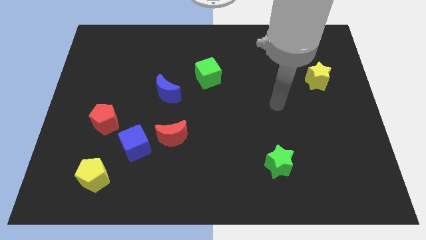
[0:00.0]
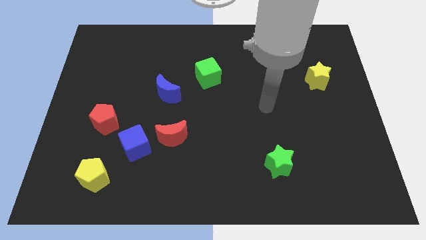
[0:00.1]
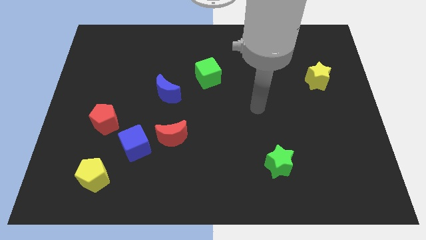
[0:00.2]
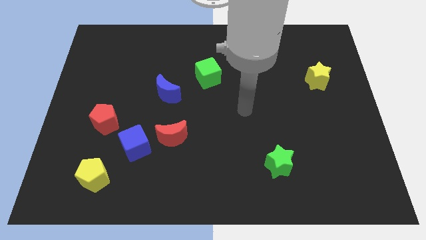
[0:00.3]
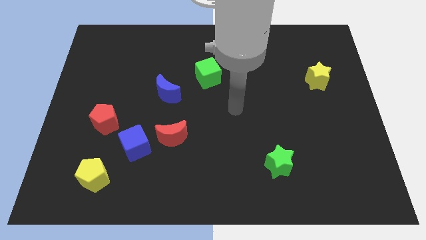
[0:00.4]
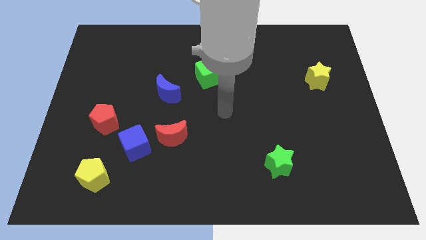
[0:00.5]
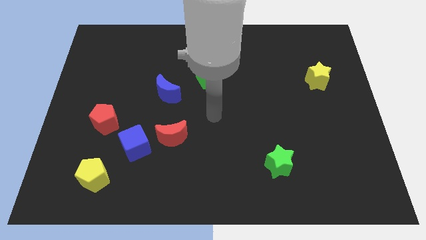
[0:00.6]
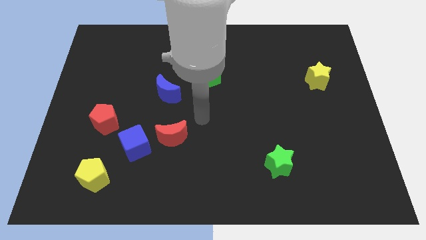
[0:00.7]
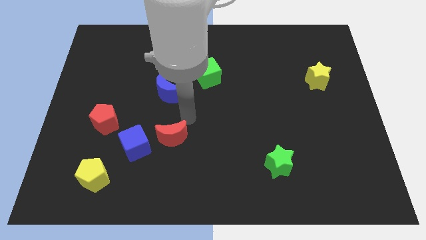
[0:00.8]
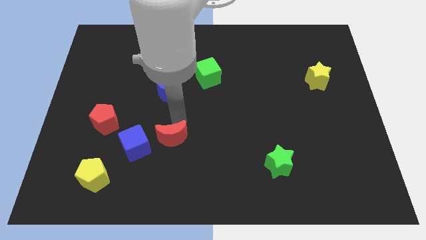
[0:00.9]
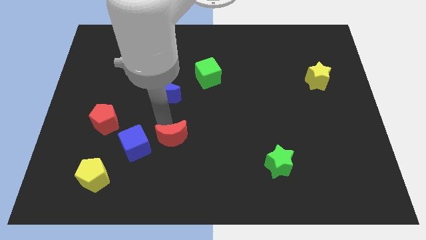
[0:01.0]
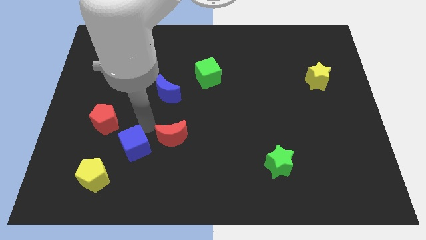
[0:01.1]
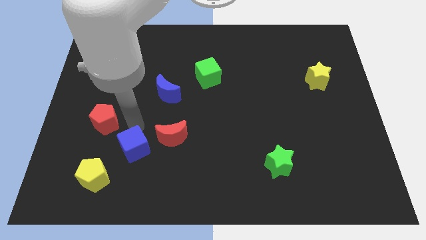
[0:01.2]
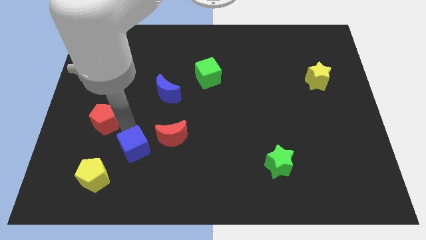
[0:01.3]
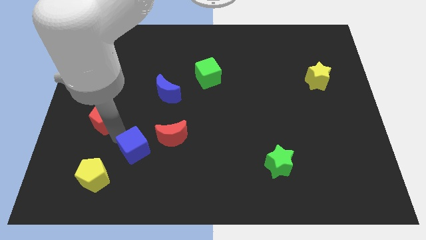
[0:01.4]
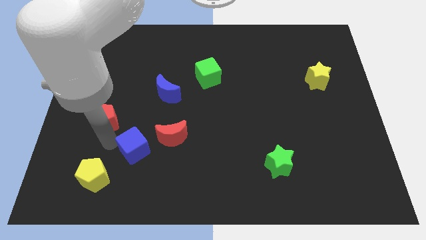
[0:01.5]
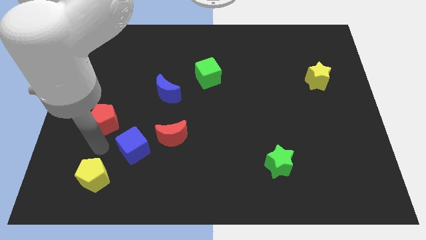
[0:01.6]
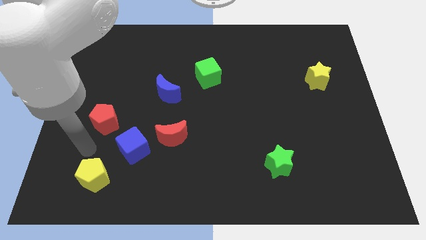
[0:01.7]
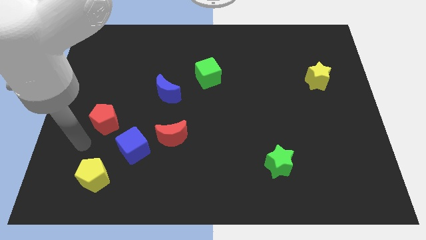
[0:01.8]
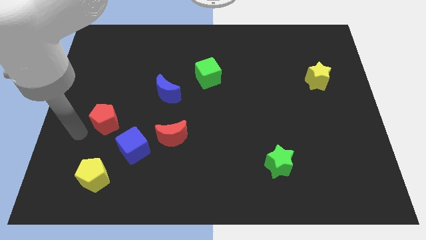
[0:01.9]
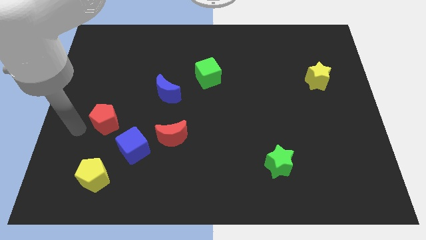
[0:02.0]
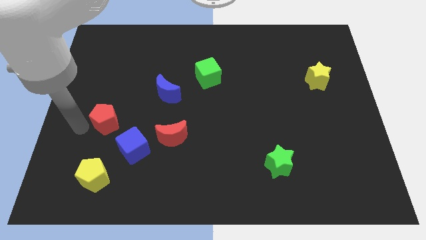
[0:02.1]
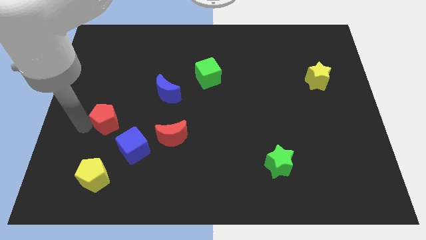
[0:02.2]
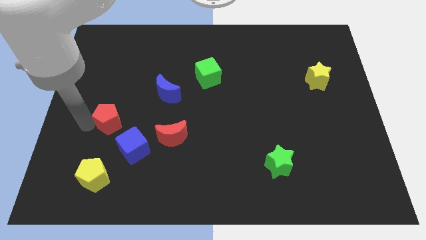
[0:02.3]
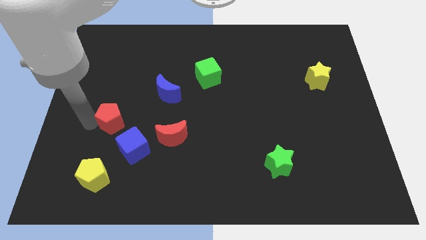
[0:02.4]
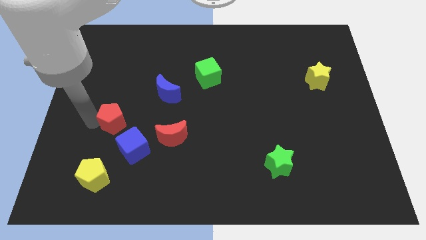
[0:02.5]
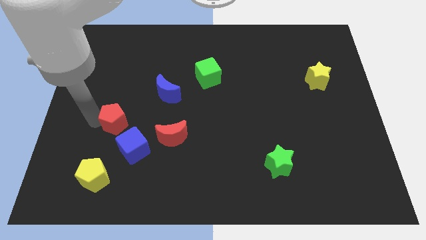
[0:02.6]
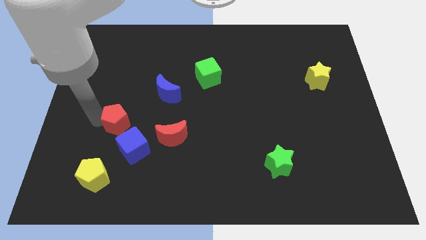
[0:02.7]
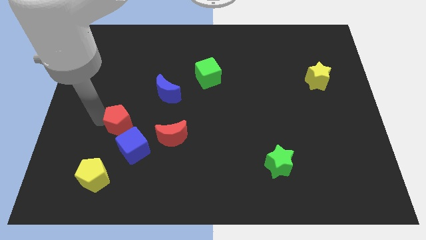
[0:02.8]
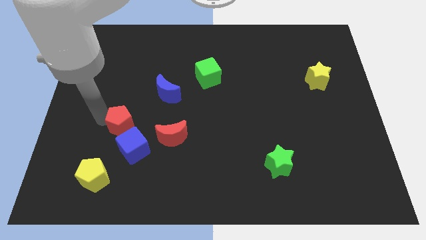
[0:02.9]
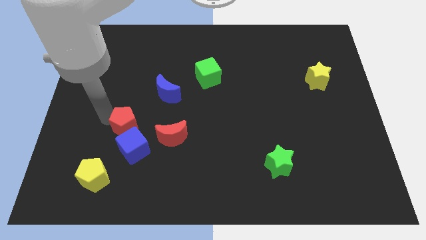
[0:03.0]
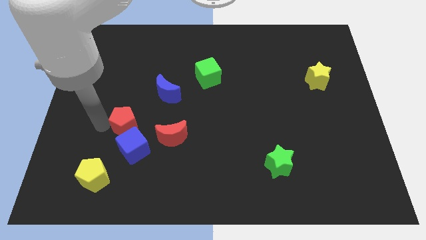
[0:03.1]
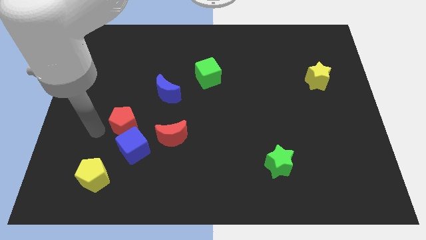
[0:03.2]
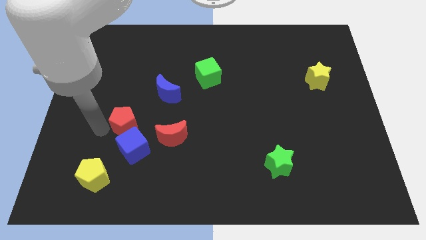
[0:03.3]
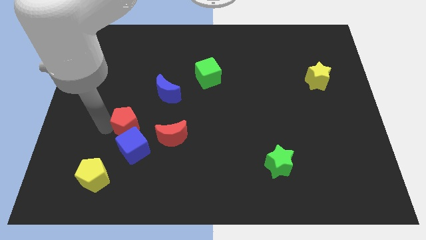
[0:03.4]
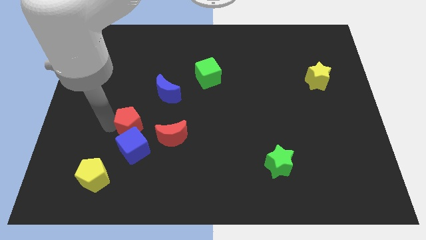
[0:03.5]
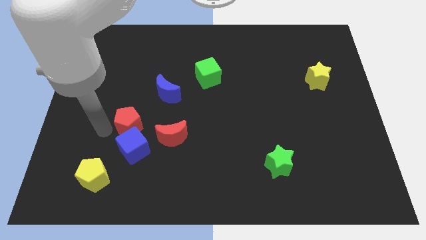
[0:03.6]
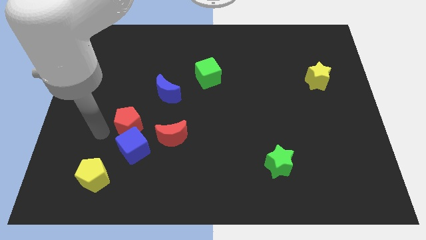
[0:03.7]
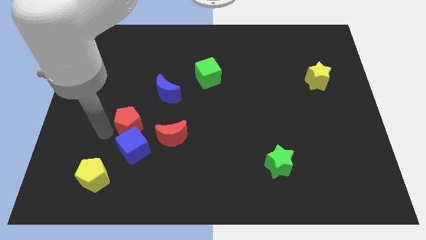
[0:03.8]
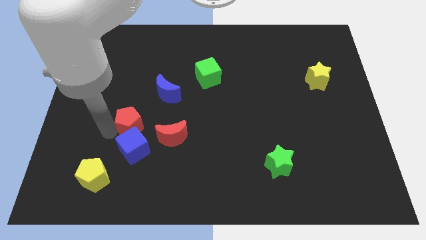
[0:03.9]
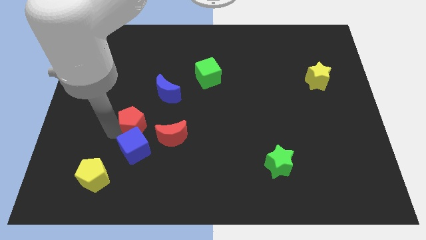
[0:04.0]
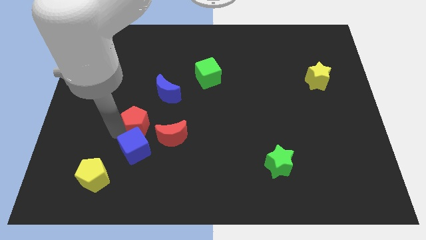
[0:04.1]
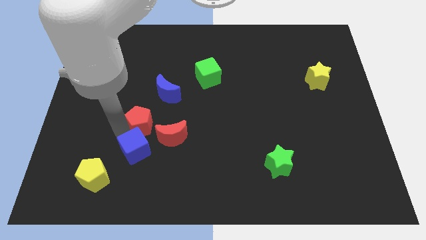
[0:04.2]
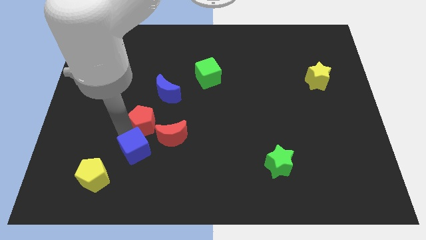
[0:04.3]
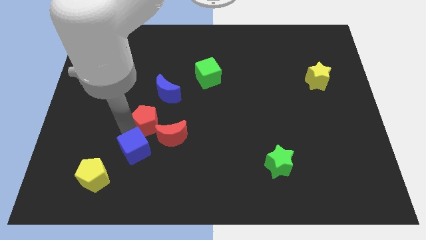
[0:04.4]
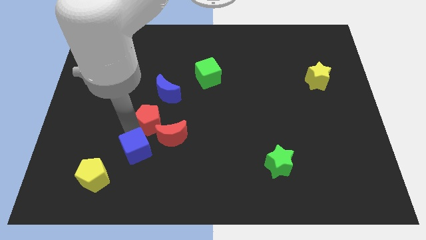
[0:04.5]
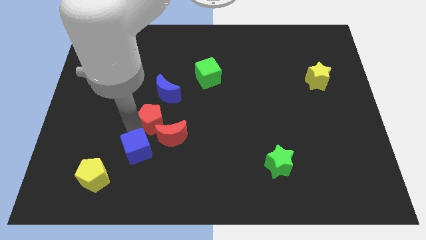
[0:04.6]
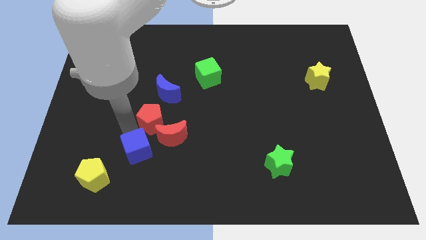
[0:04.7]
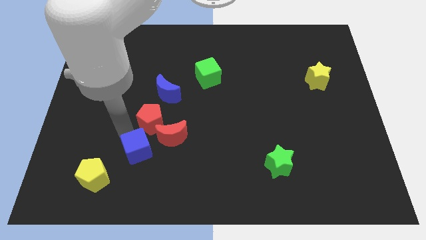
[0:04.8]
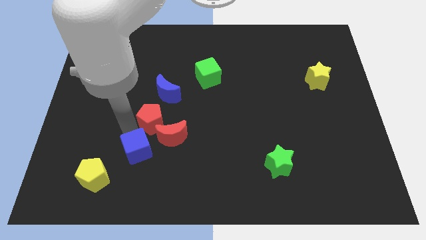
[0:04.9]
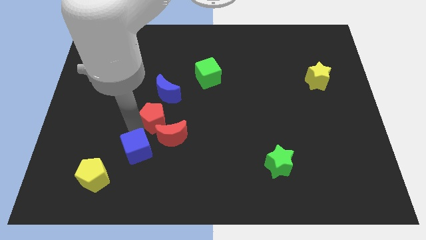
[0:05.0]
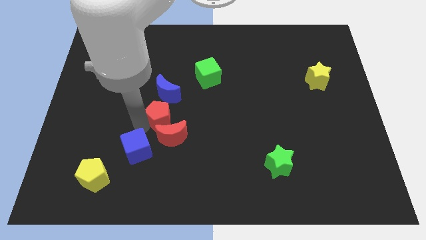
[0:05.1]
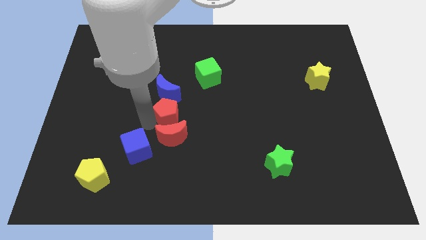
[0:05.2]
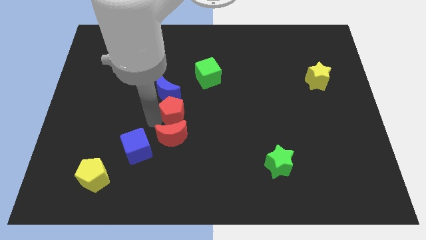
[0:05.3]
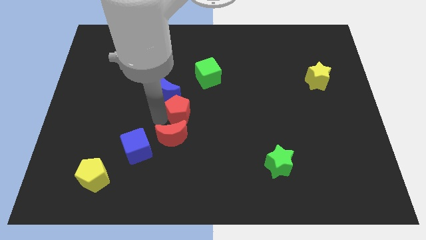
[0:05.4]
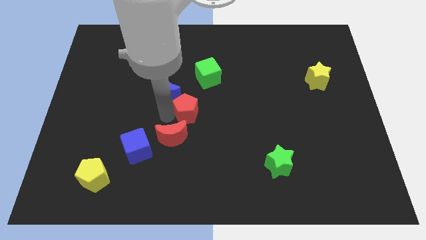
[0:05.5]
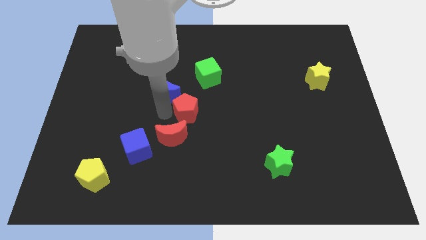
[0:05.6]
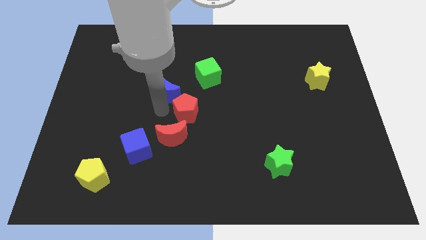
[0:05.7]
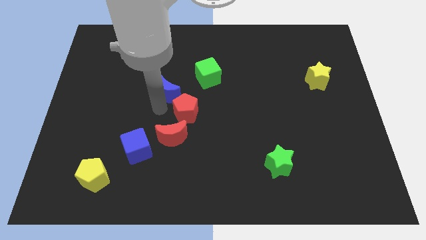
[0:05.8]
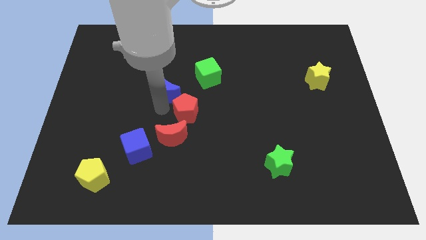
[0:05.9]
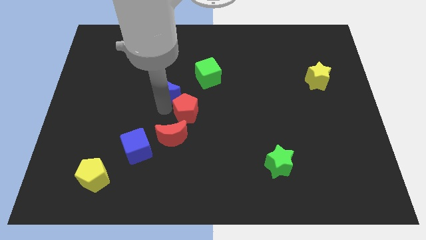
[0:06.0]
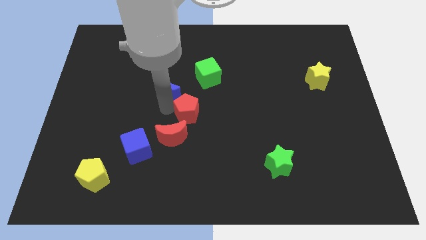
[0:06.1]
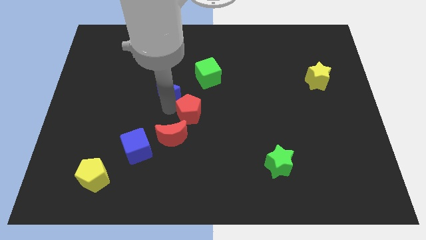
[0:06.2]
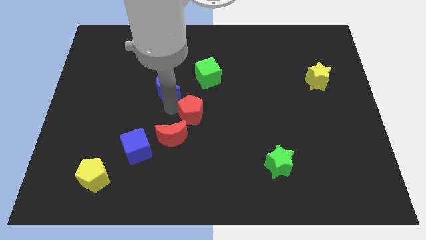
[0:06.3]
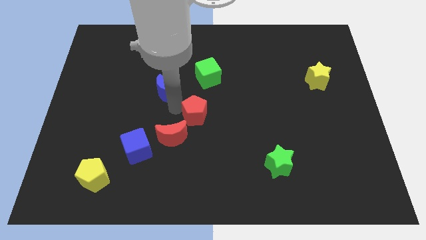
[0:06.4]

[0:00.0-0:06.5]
push the red pentagon right

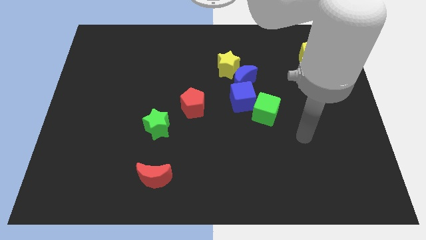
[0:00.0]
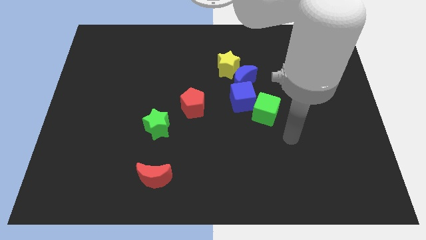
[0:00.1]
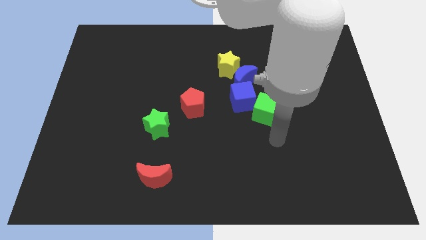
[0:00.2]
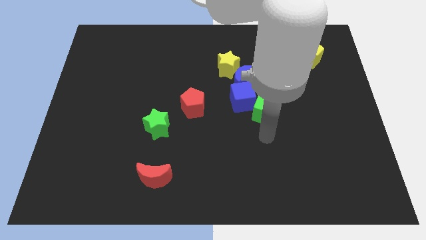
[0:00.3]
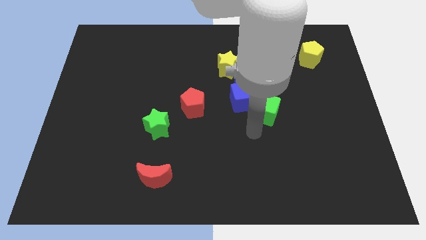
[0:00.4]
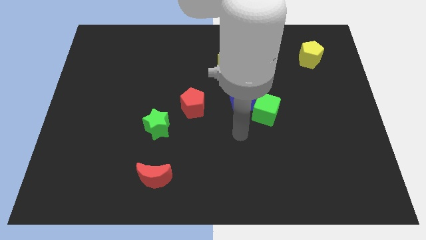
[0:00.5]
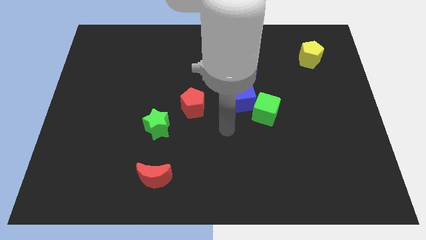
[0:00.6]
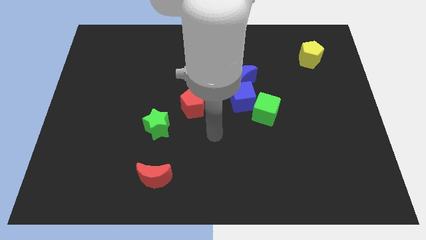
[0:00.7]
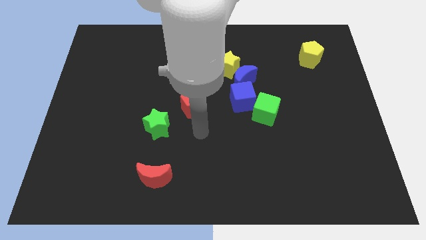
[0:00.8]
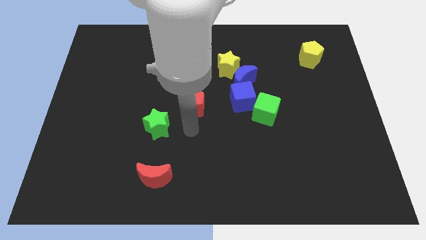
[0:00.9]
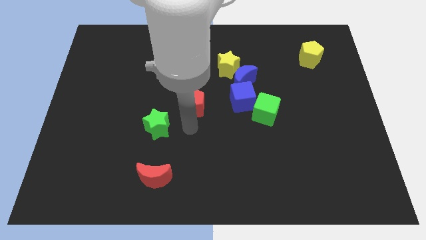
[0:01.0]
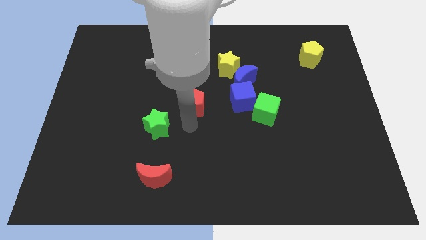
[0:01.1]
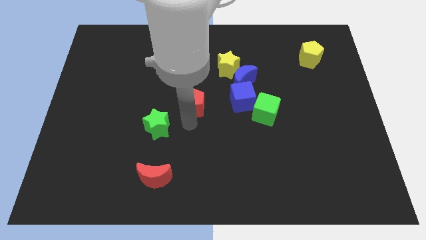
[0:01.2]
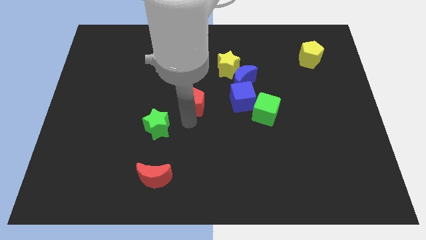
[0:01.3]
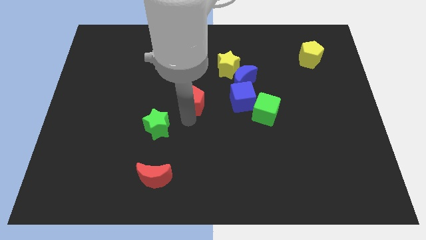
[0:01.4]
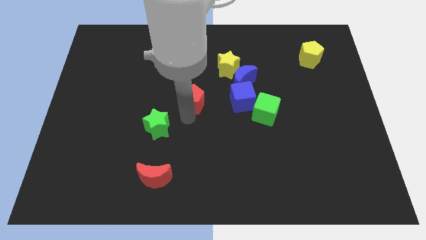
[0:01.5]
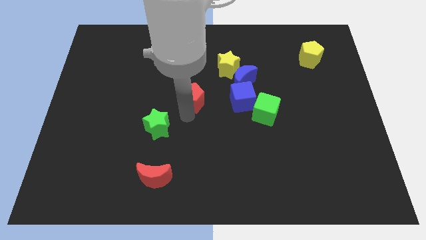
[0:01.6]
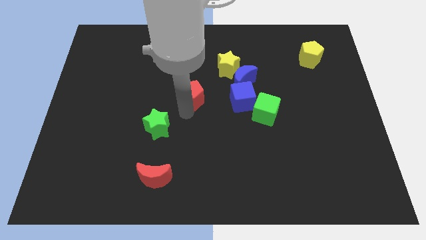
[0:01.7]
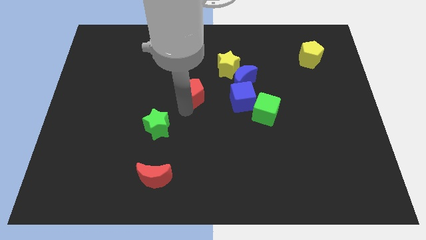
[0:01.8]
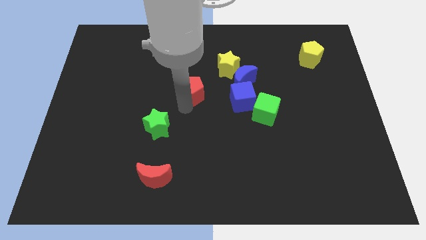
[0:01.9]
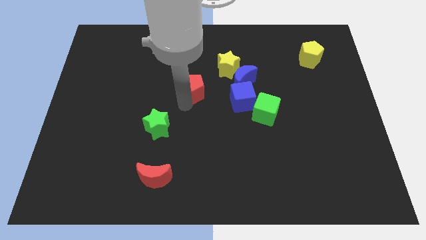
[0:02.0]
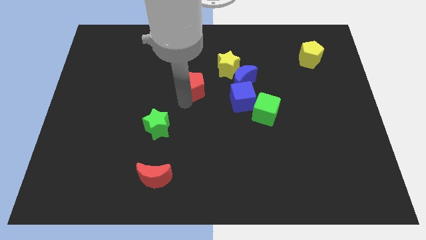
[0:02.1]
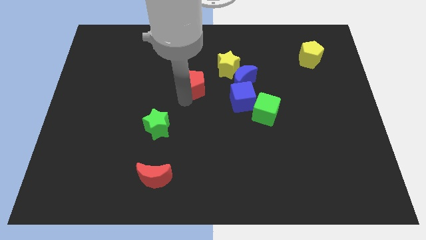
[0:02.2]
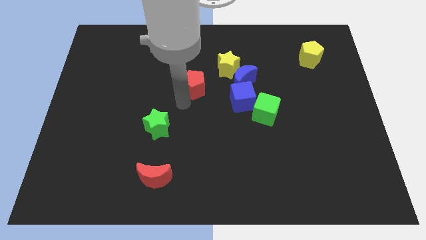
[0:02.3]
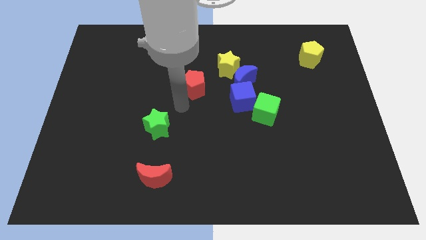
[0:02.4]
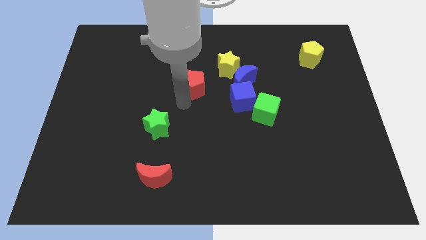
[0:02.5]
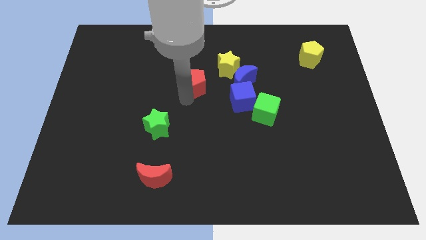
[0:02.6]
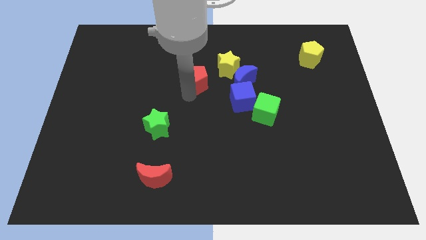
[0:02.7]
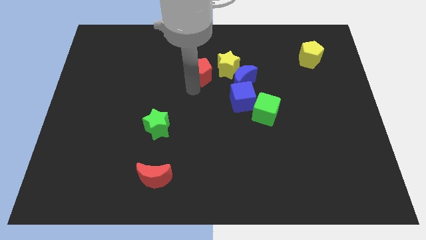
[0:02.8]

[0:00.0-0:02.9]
slightly move the red pentagon up and to the right diagonally
